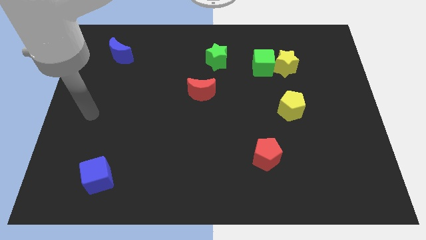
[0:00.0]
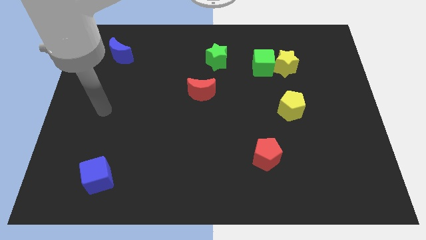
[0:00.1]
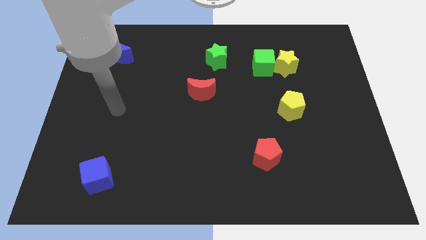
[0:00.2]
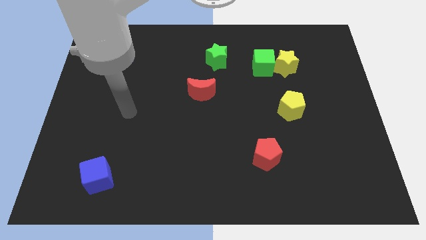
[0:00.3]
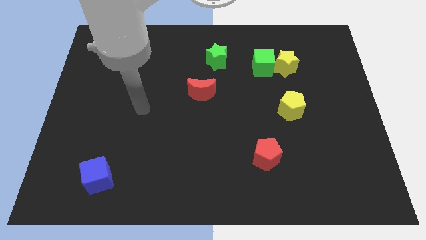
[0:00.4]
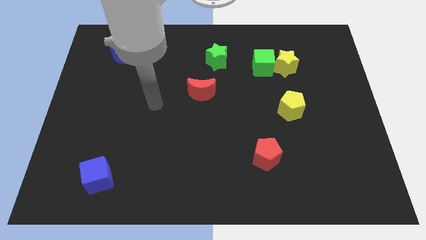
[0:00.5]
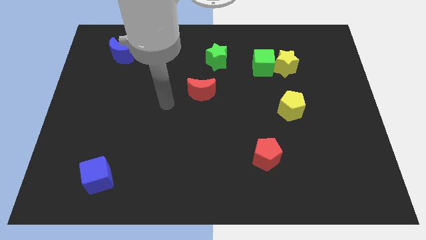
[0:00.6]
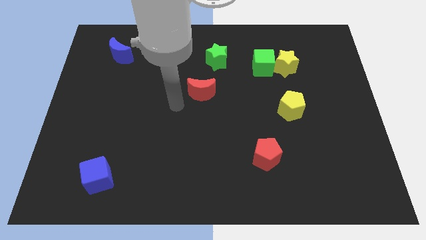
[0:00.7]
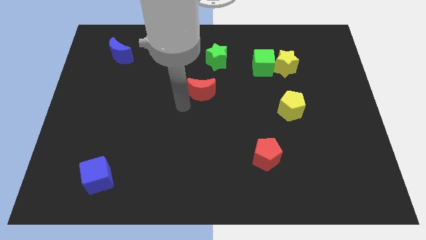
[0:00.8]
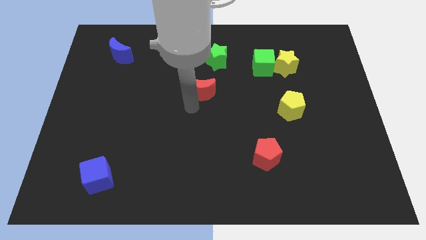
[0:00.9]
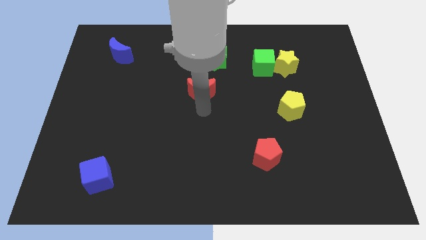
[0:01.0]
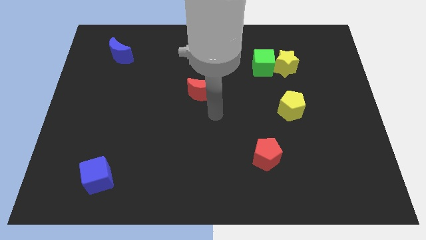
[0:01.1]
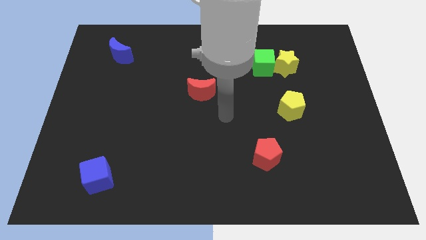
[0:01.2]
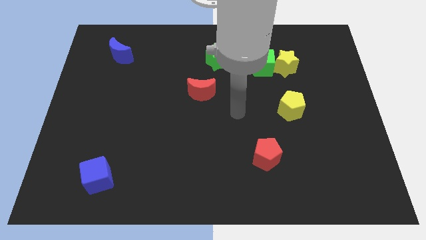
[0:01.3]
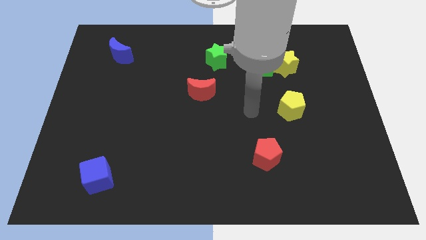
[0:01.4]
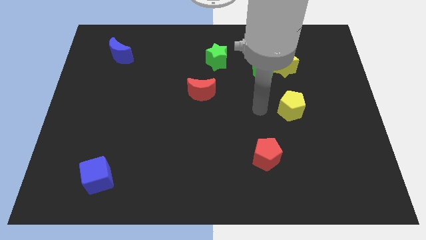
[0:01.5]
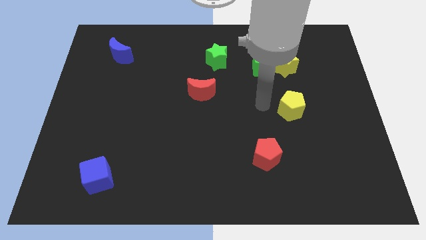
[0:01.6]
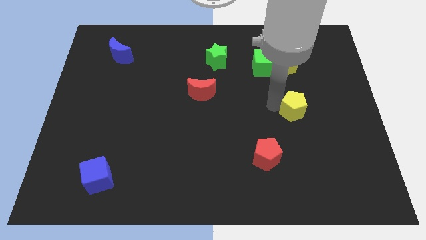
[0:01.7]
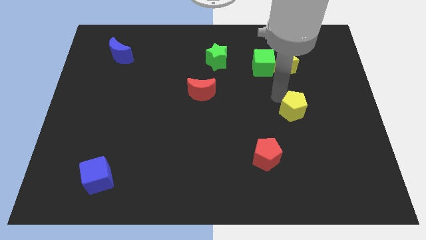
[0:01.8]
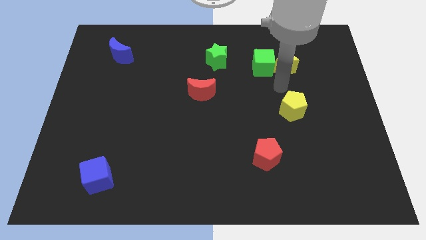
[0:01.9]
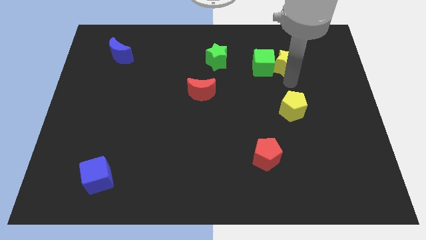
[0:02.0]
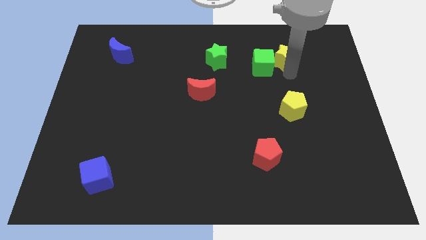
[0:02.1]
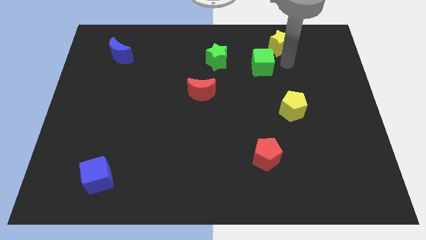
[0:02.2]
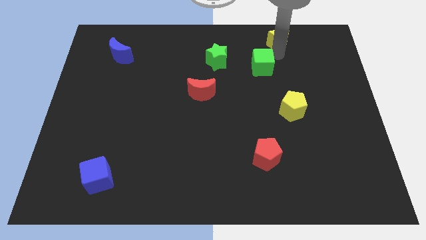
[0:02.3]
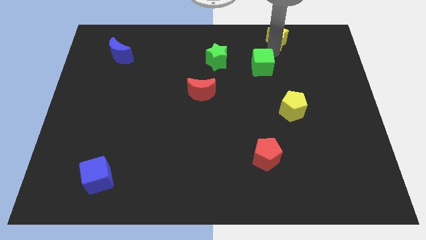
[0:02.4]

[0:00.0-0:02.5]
pull the green cube apart from the yellow star

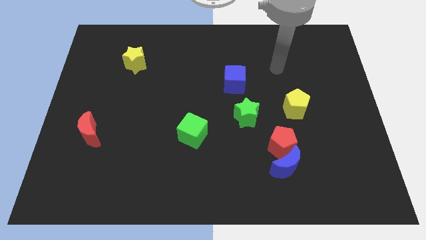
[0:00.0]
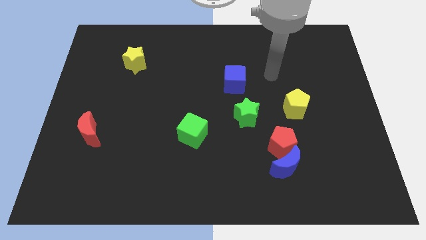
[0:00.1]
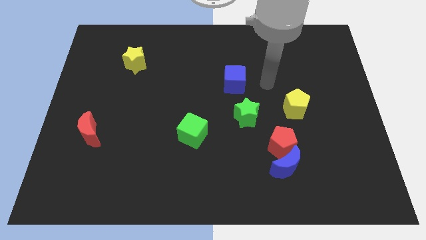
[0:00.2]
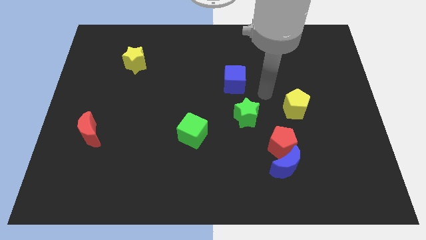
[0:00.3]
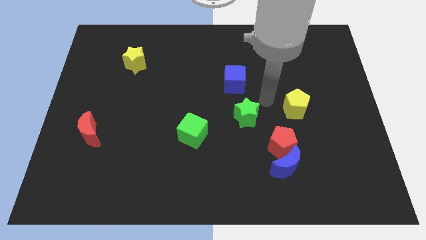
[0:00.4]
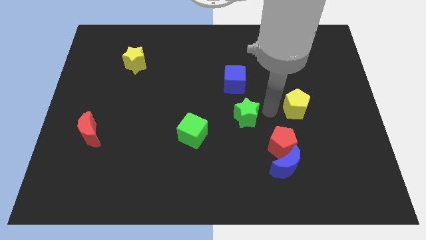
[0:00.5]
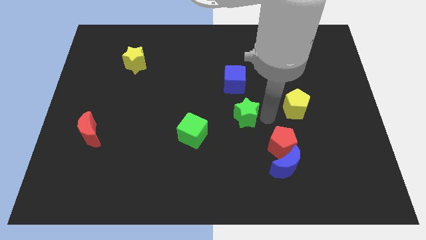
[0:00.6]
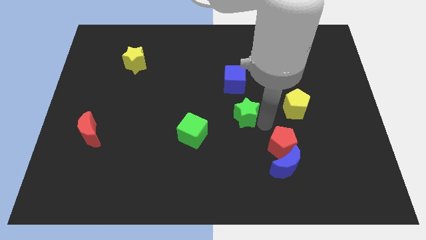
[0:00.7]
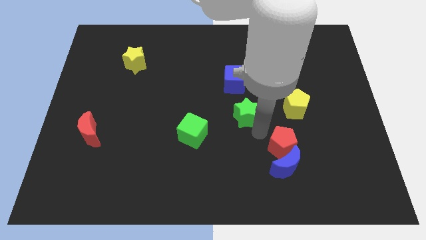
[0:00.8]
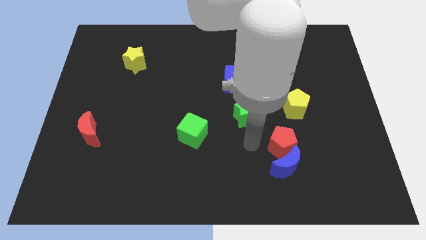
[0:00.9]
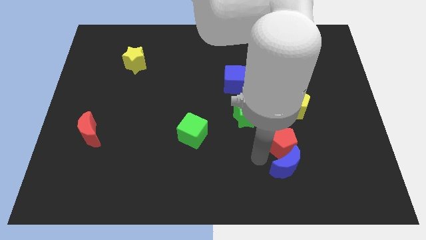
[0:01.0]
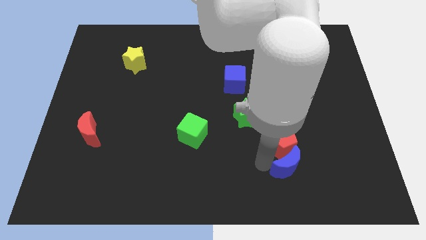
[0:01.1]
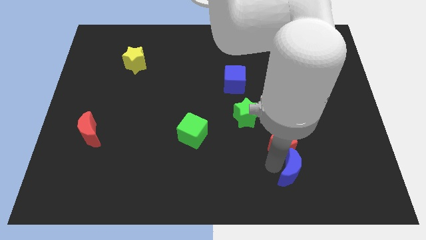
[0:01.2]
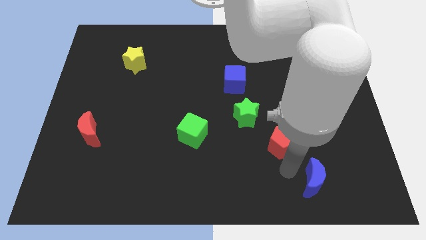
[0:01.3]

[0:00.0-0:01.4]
separate the red pentagon from the blue moon

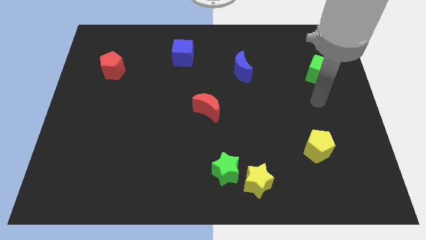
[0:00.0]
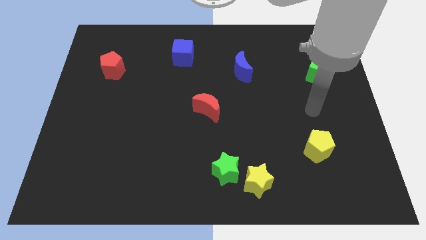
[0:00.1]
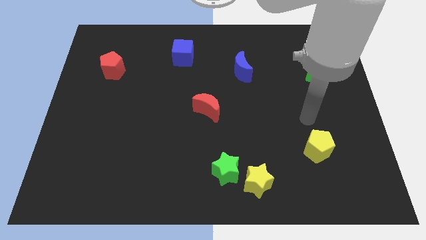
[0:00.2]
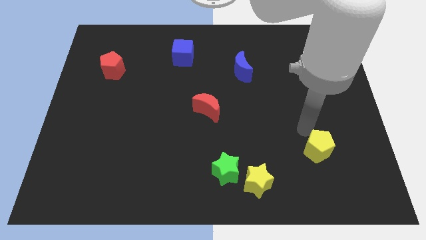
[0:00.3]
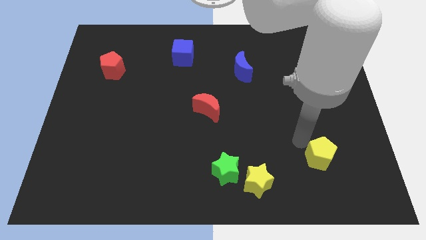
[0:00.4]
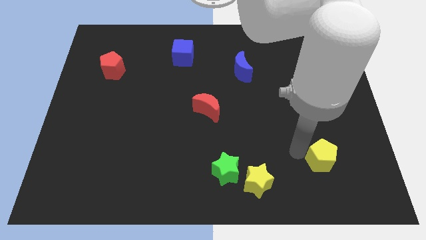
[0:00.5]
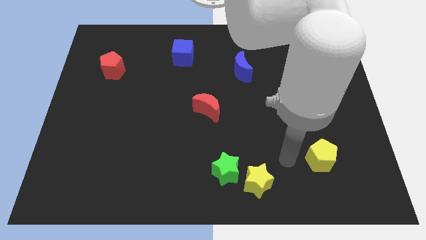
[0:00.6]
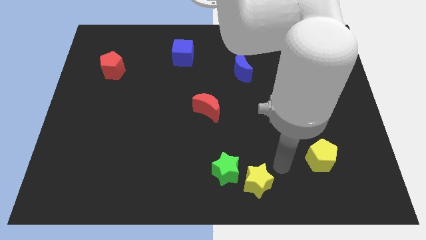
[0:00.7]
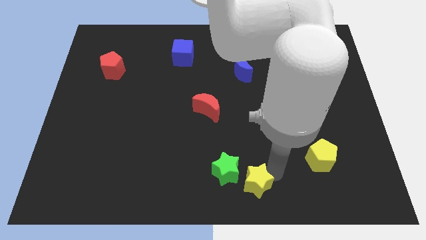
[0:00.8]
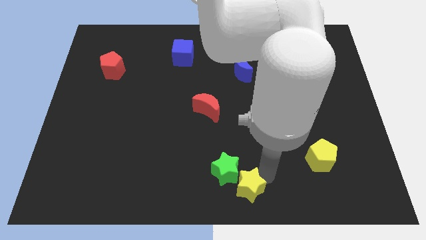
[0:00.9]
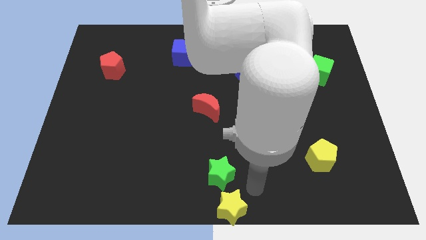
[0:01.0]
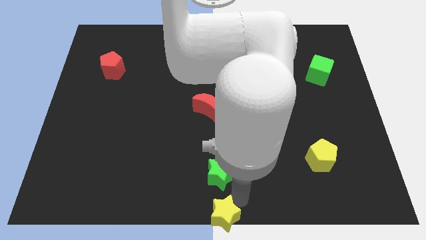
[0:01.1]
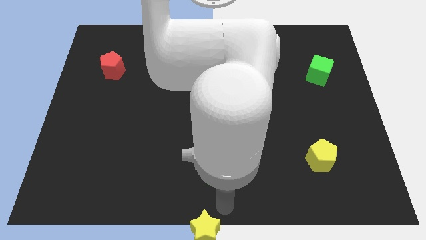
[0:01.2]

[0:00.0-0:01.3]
pull the green star apart from the yellow star

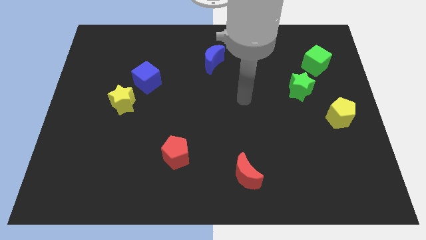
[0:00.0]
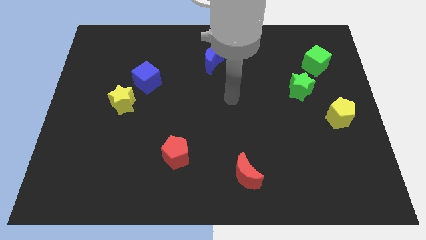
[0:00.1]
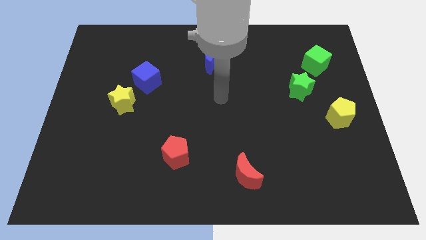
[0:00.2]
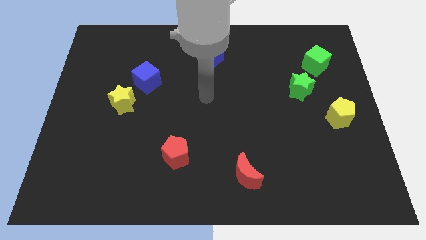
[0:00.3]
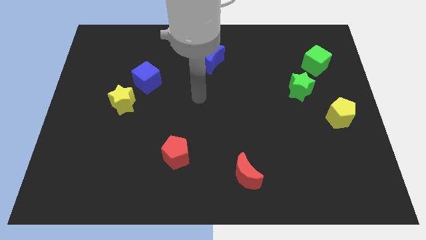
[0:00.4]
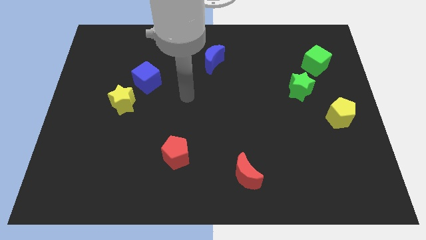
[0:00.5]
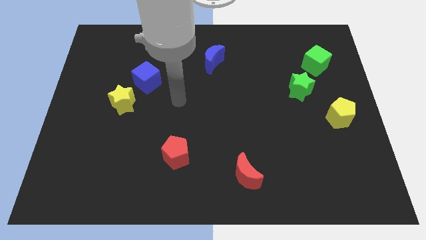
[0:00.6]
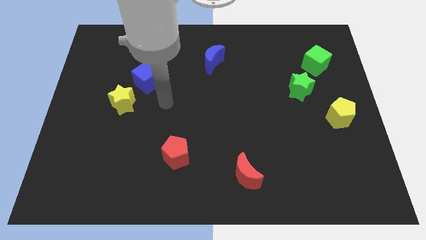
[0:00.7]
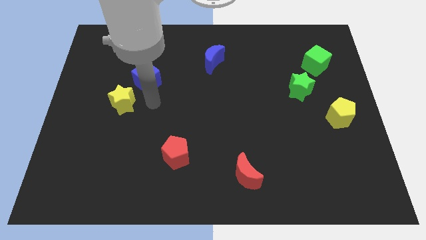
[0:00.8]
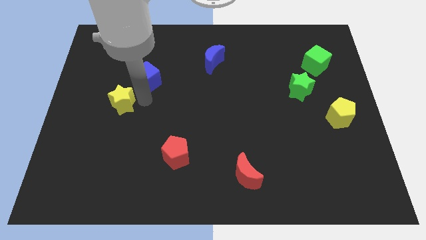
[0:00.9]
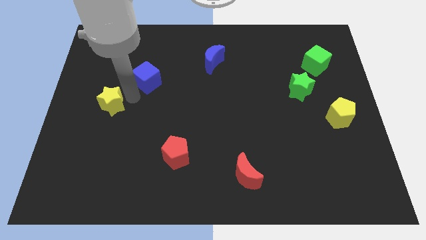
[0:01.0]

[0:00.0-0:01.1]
pull the blue cube apart from the yellow star

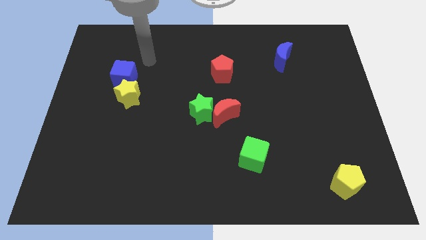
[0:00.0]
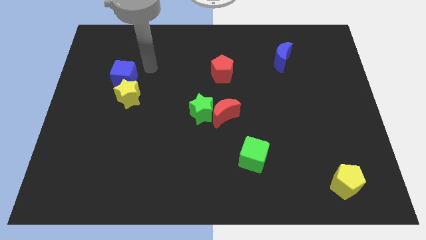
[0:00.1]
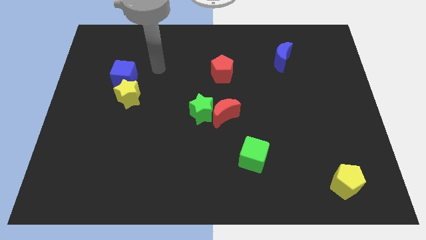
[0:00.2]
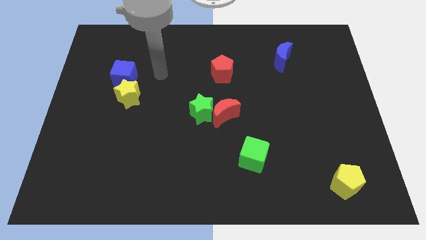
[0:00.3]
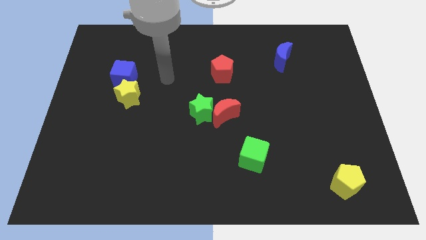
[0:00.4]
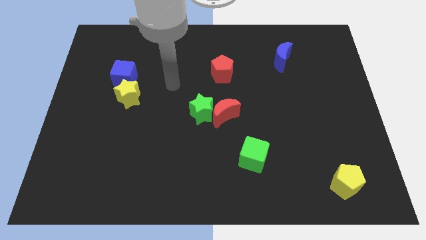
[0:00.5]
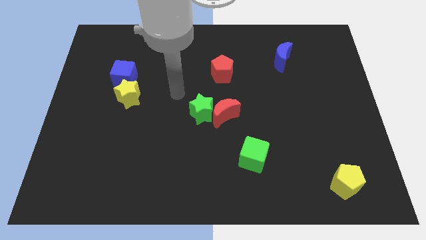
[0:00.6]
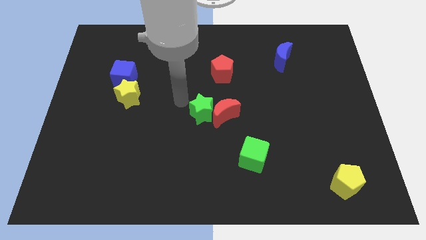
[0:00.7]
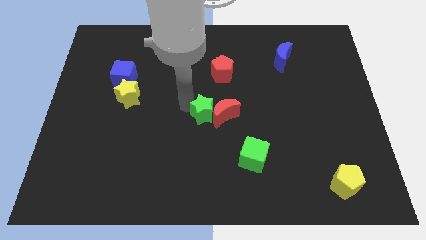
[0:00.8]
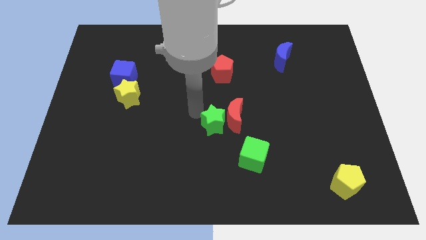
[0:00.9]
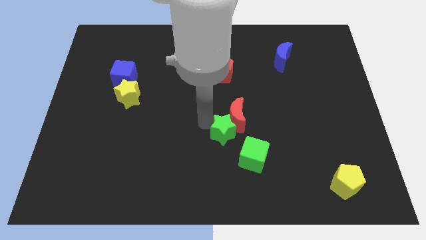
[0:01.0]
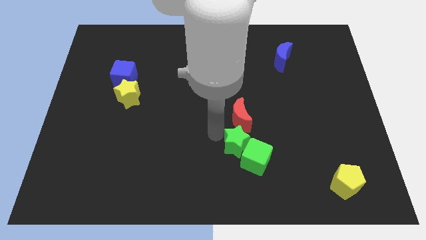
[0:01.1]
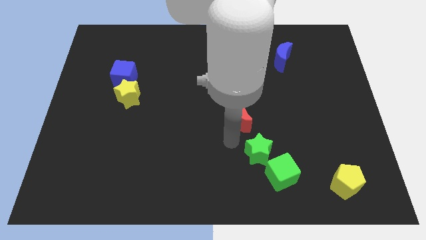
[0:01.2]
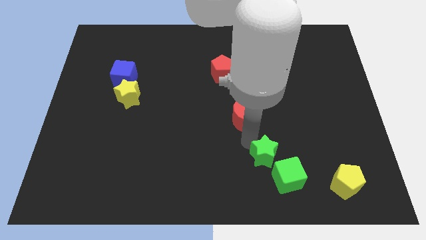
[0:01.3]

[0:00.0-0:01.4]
move the red moon away from the green star

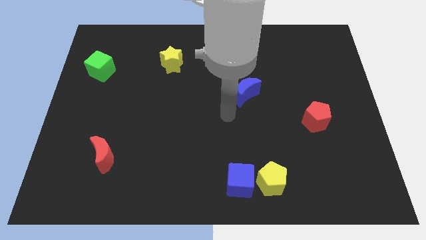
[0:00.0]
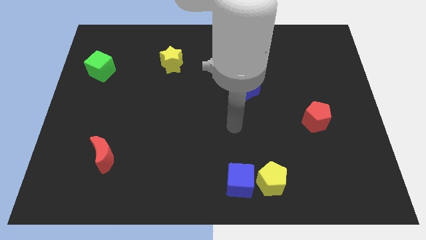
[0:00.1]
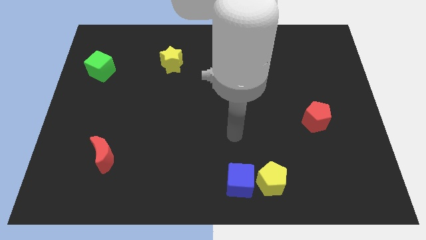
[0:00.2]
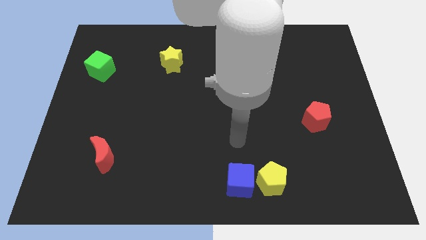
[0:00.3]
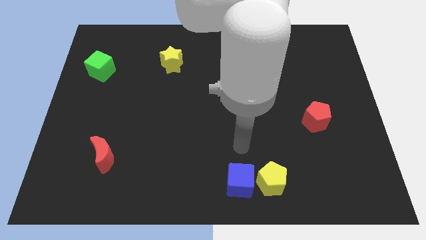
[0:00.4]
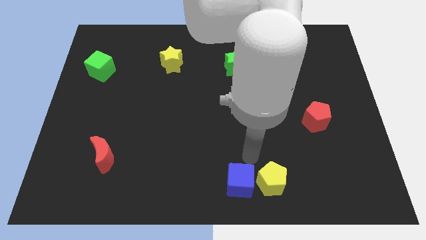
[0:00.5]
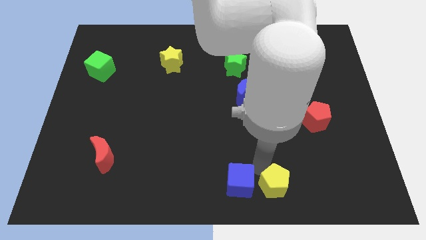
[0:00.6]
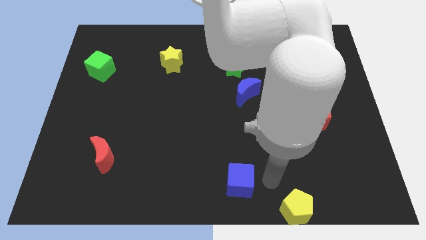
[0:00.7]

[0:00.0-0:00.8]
pull the blue cube apart from the yellow pentagon

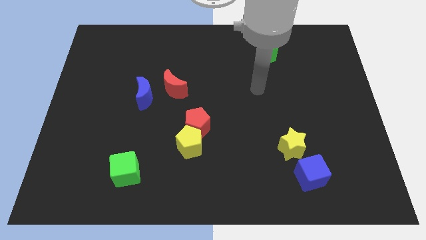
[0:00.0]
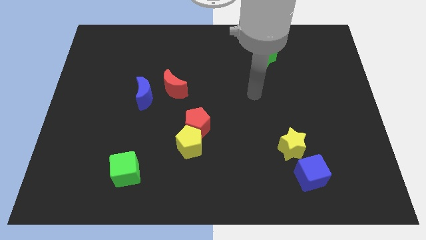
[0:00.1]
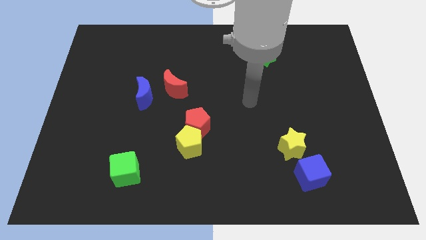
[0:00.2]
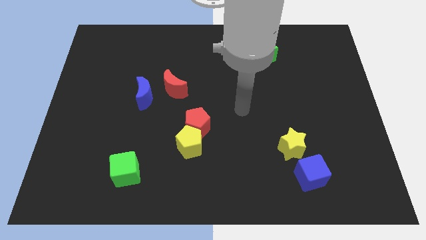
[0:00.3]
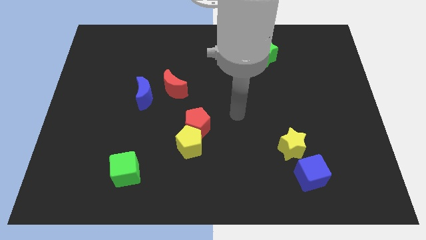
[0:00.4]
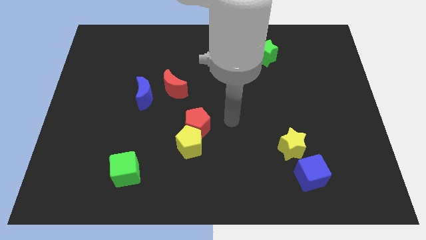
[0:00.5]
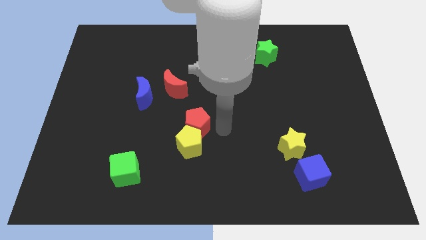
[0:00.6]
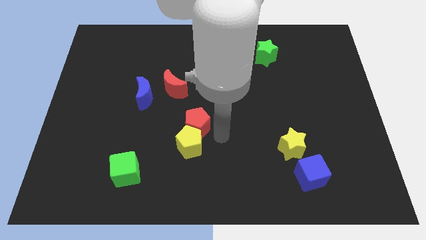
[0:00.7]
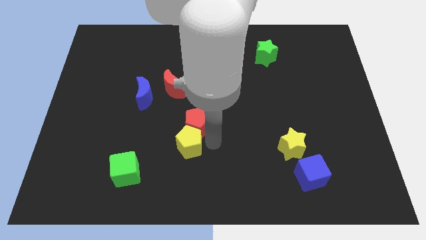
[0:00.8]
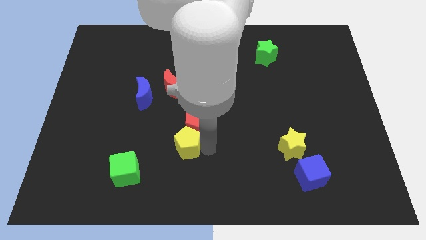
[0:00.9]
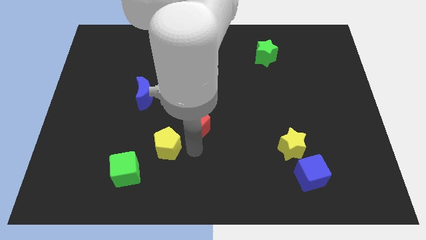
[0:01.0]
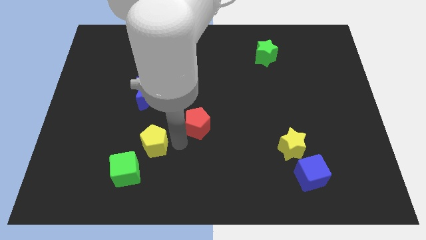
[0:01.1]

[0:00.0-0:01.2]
separate the red pentagon from the yellow pentagon
